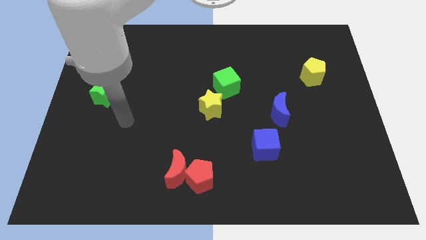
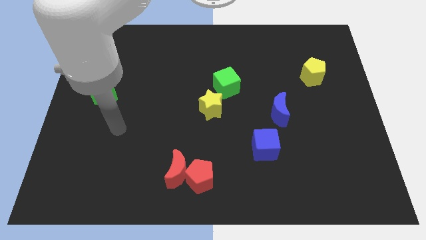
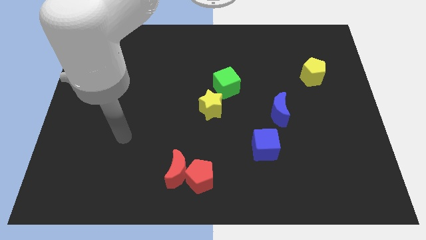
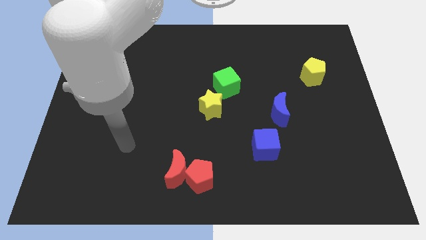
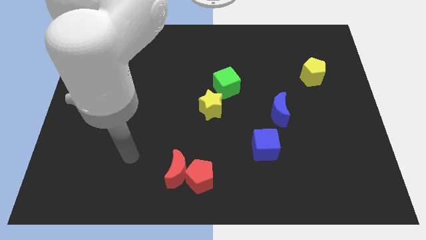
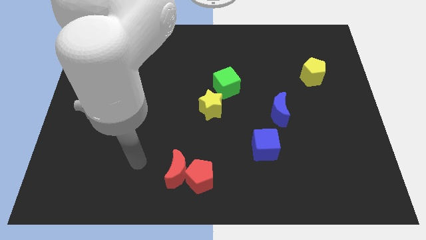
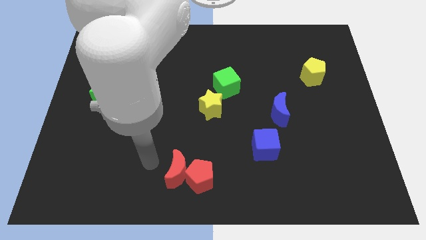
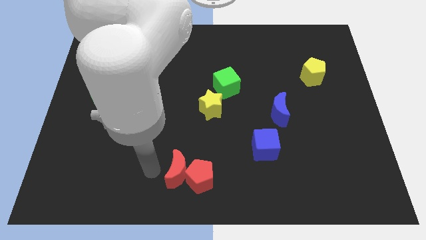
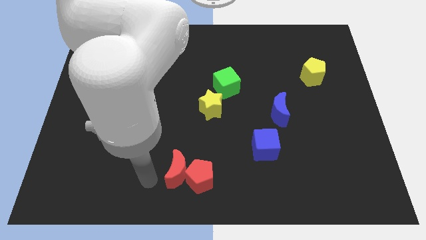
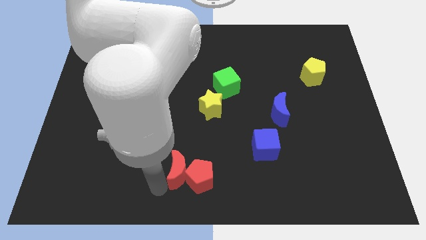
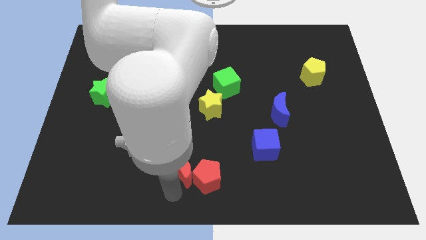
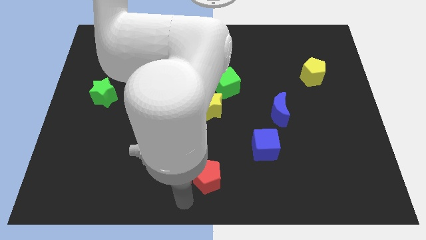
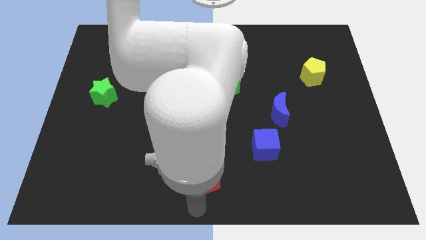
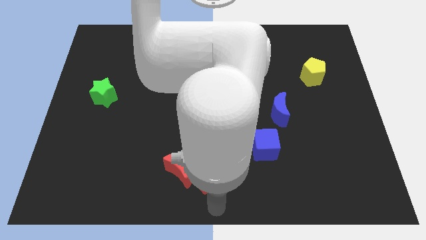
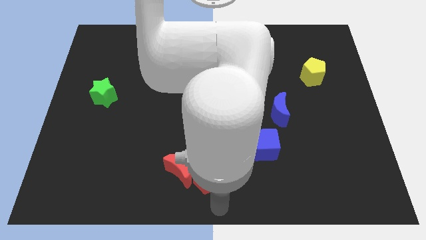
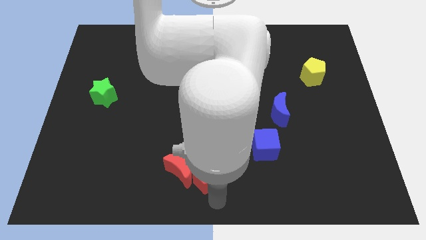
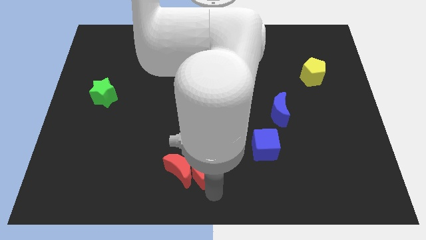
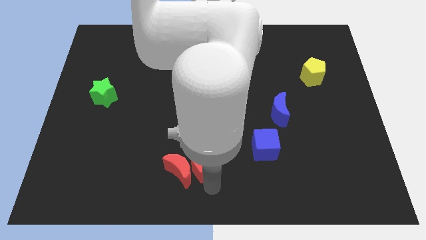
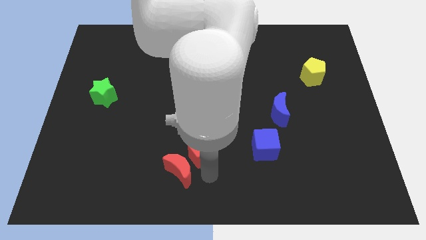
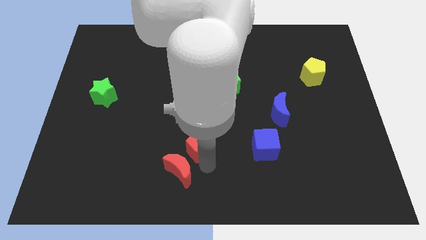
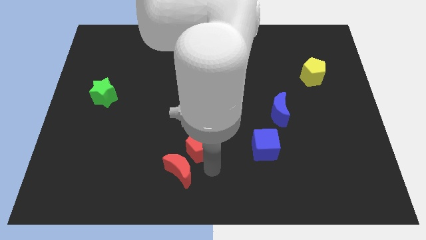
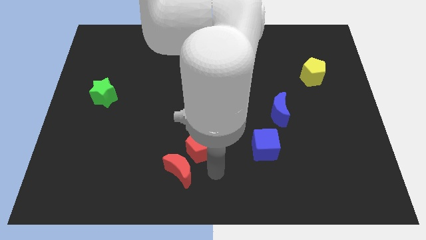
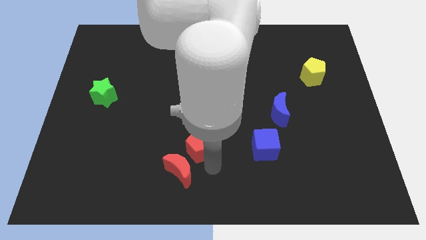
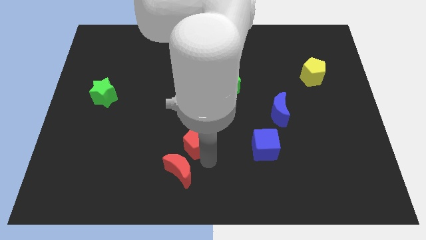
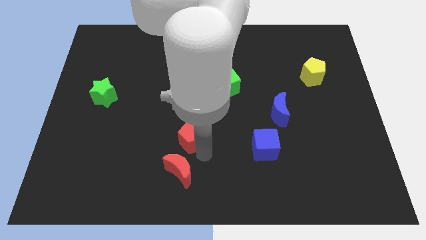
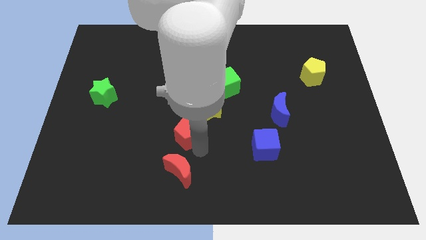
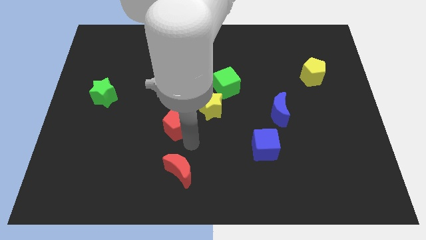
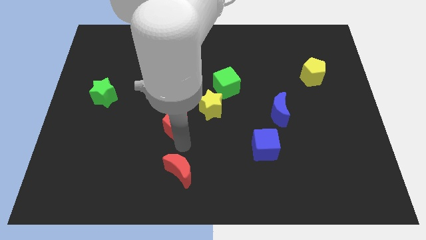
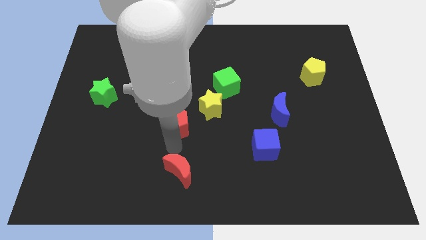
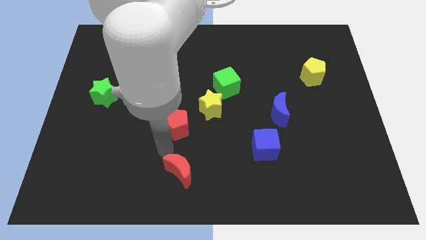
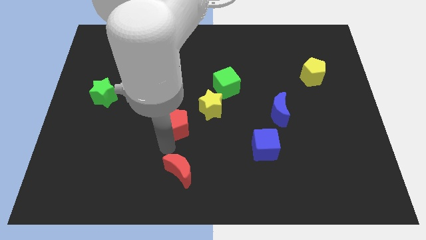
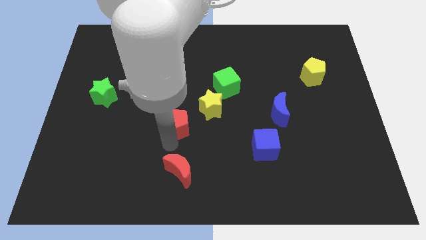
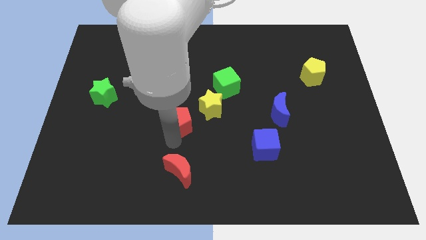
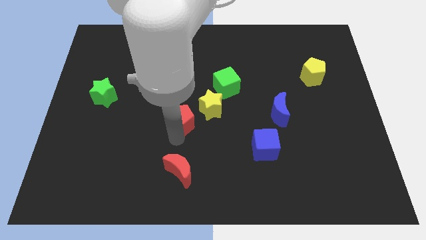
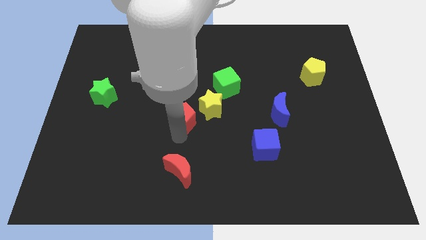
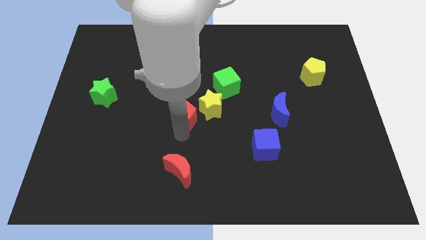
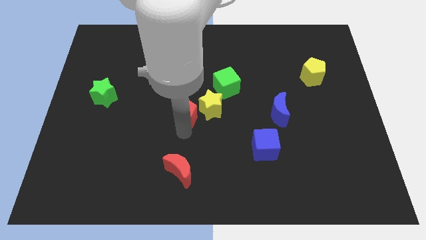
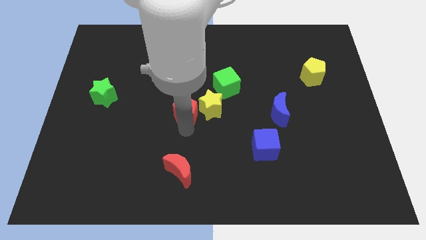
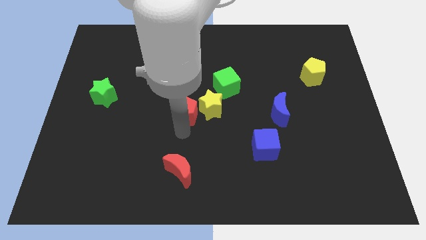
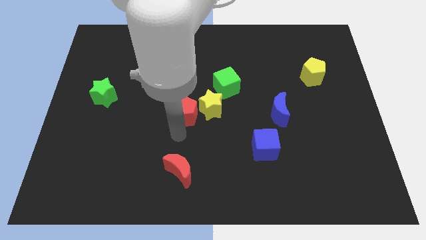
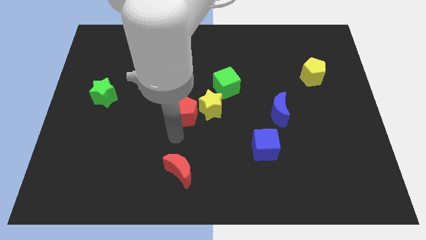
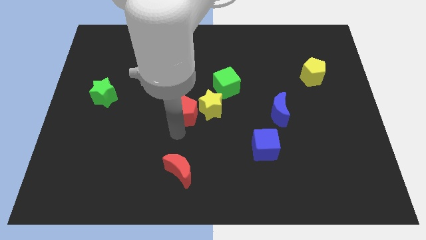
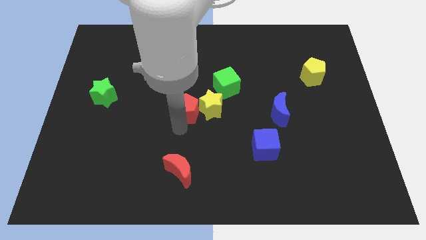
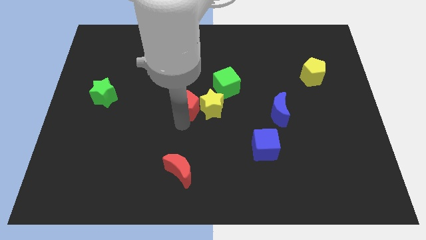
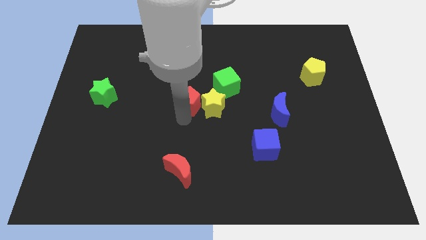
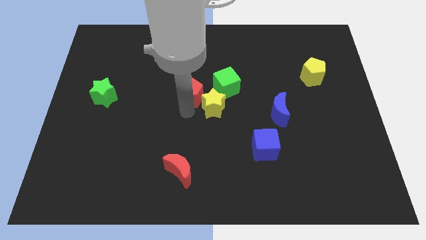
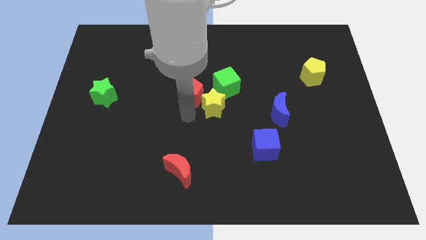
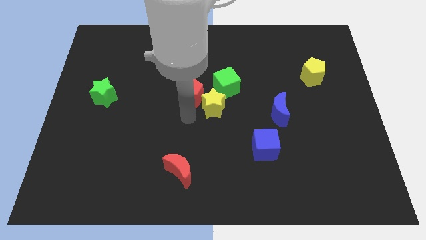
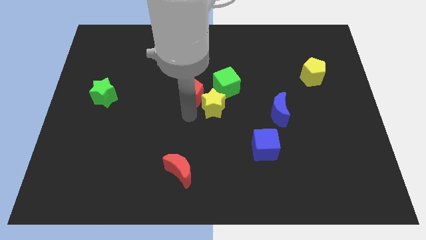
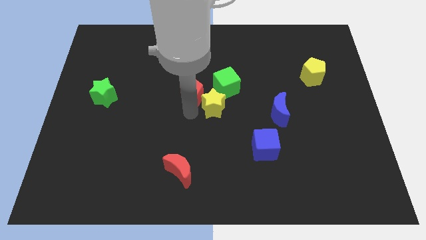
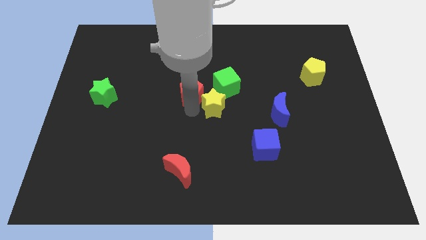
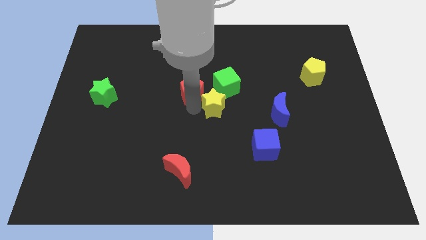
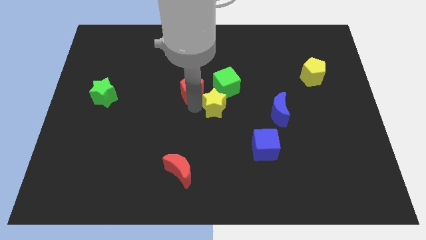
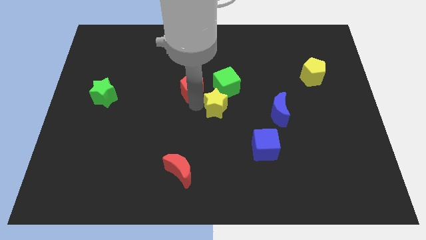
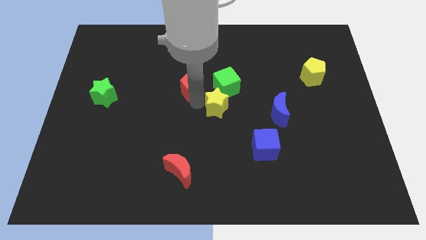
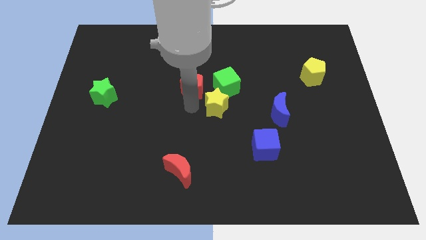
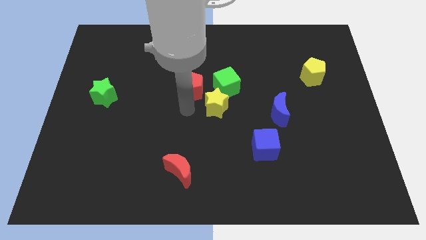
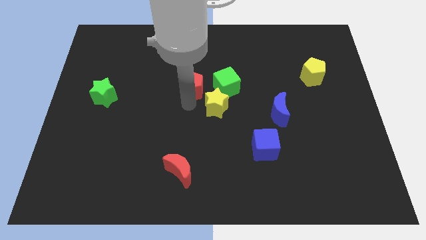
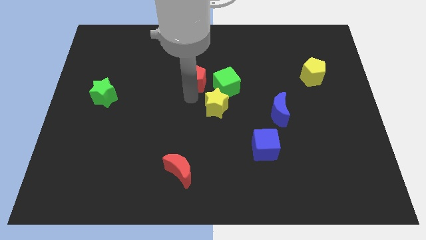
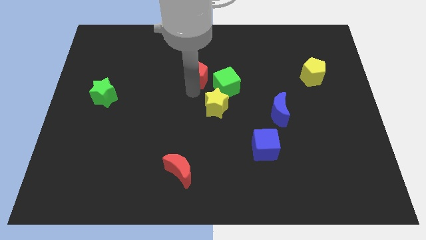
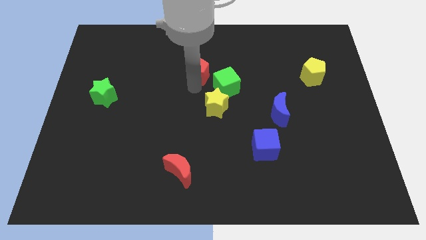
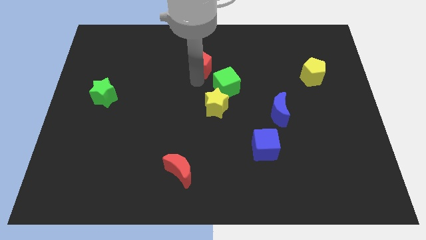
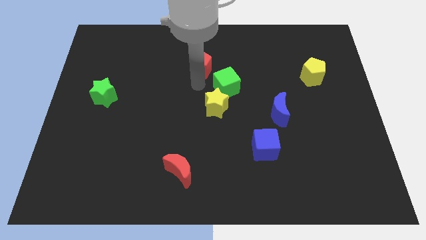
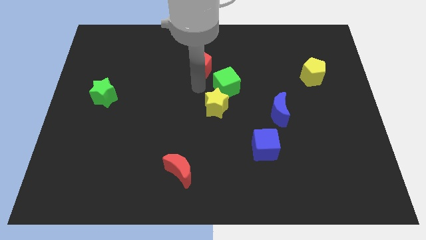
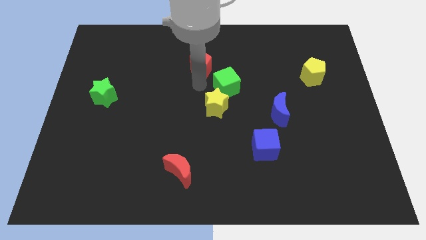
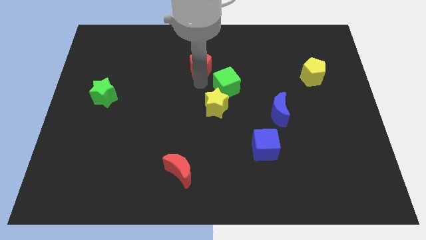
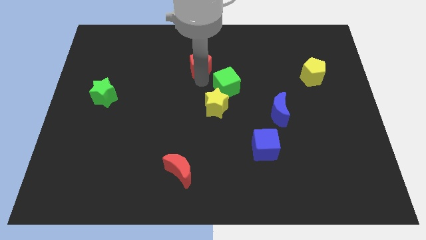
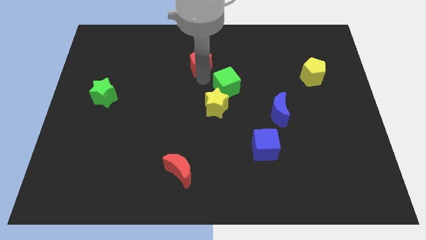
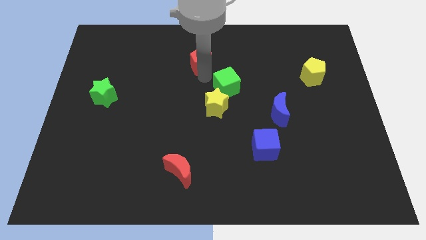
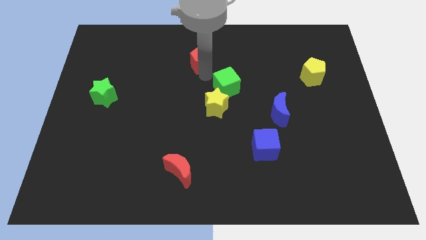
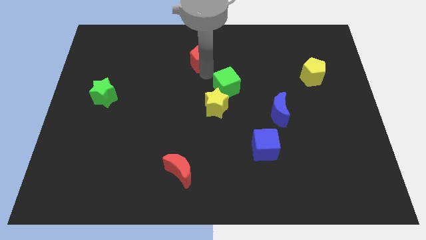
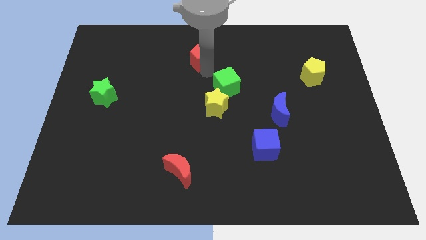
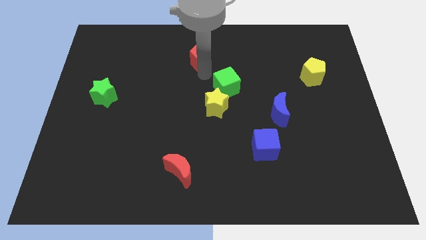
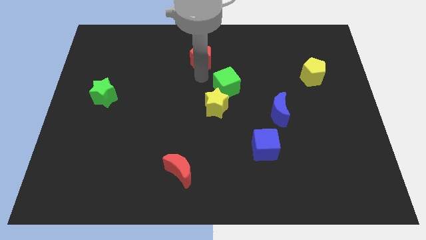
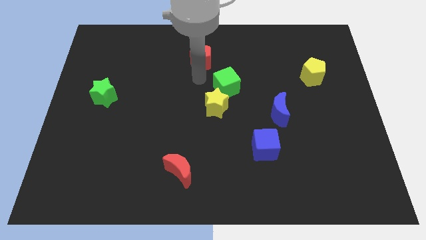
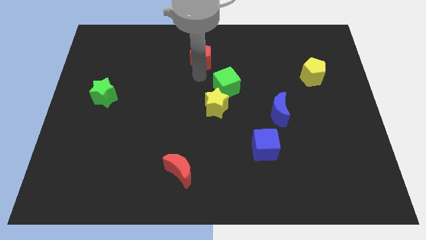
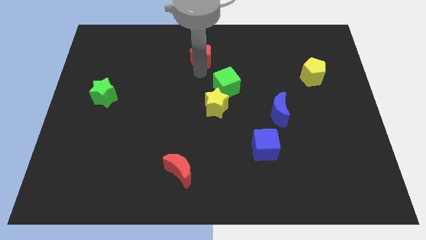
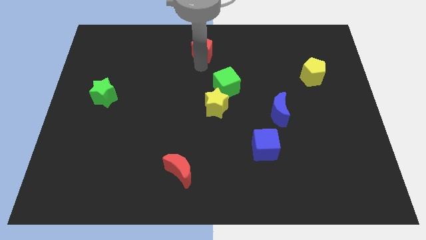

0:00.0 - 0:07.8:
push the red pentagon to the top side

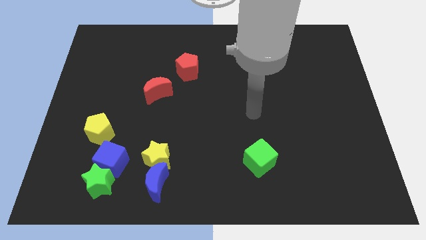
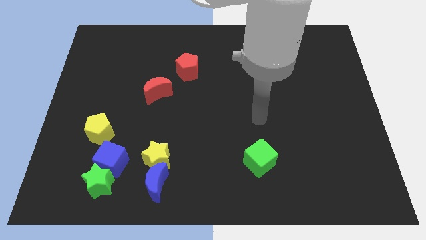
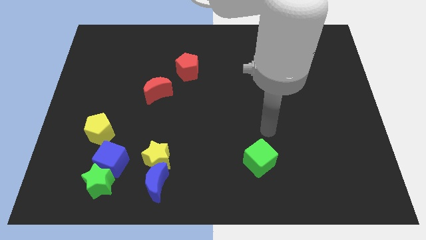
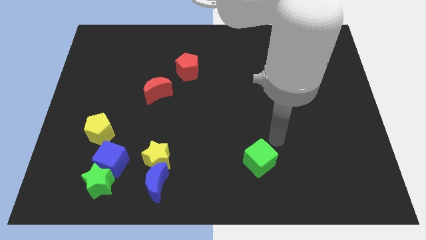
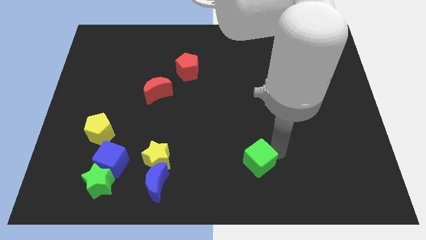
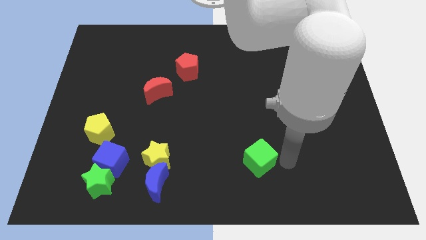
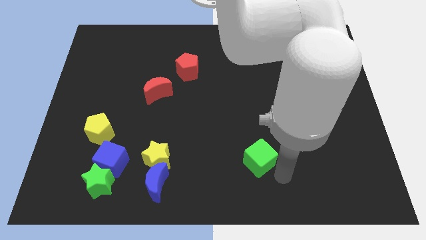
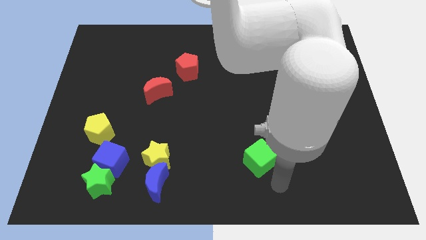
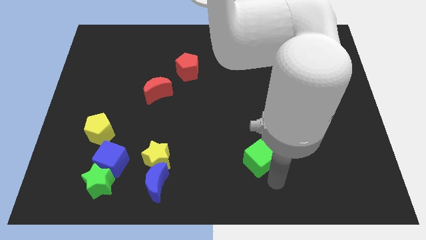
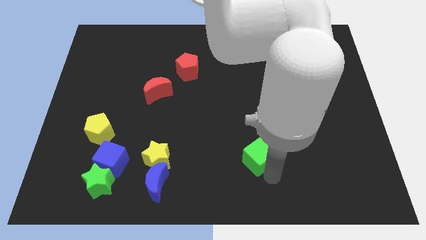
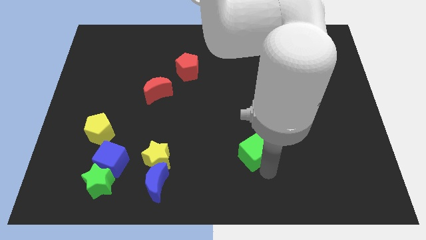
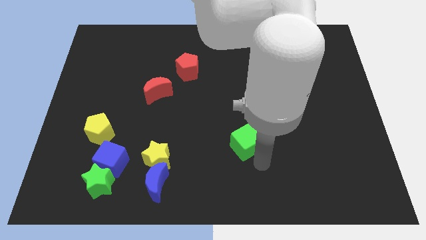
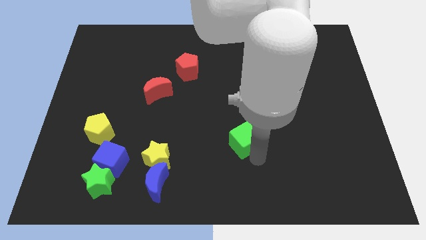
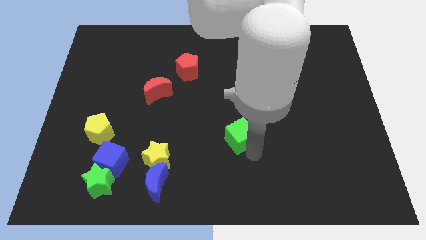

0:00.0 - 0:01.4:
move the green cube to the center of the board
